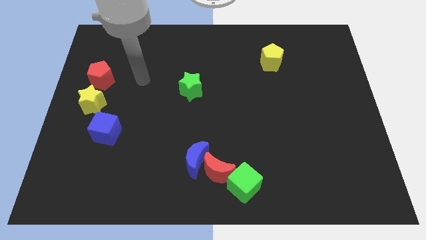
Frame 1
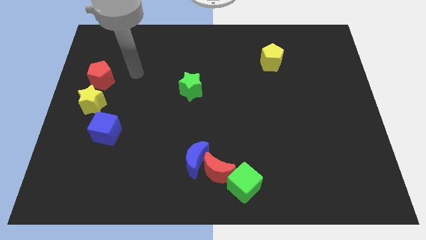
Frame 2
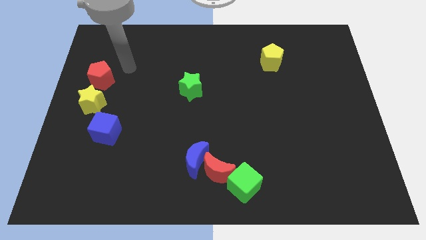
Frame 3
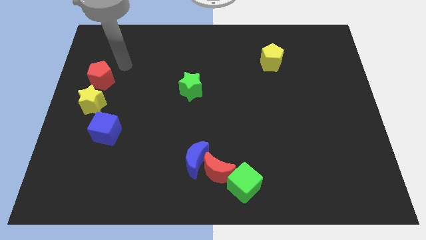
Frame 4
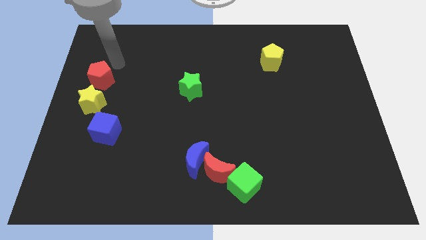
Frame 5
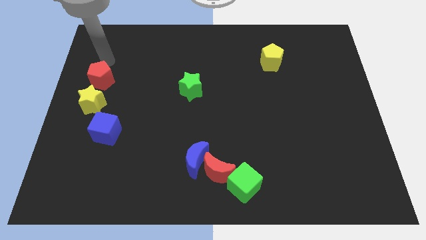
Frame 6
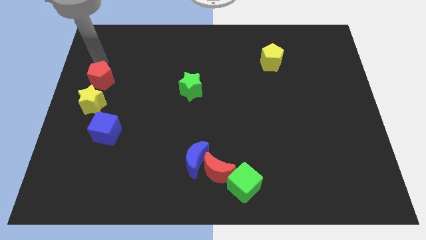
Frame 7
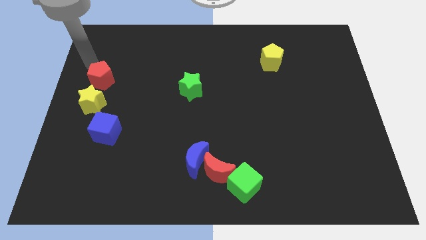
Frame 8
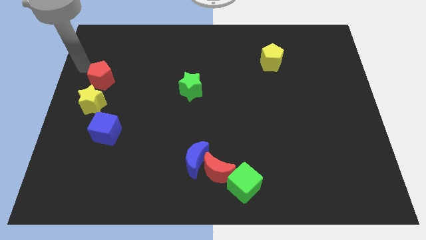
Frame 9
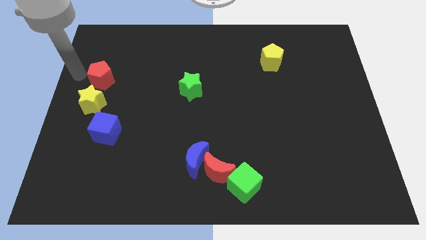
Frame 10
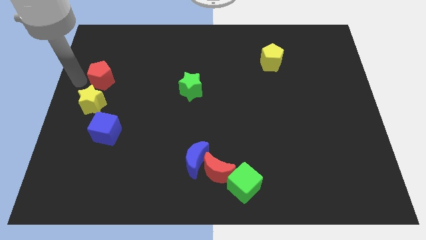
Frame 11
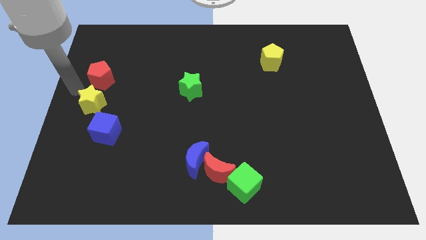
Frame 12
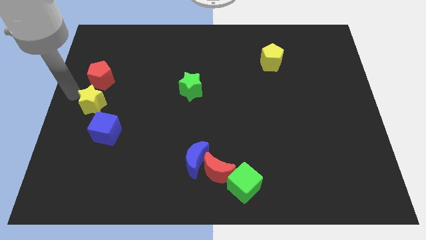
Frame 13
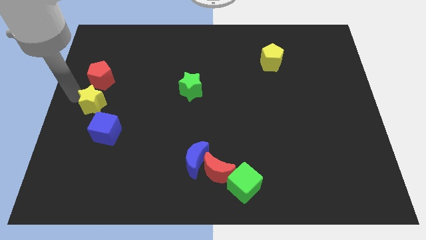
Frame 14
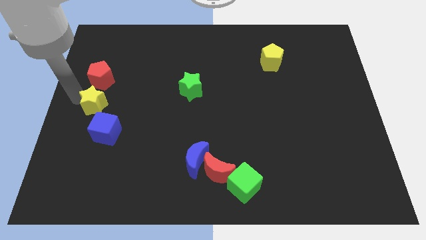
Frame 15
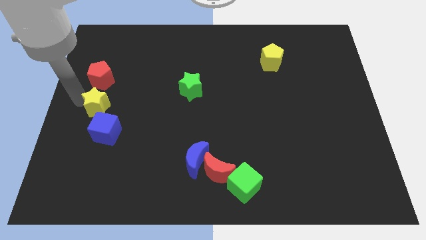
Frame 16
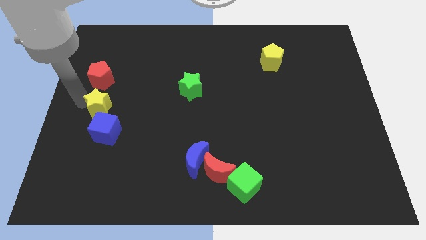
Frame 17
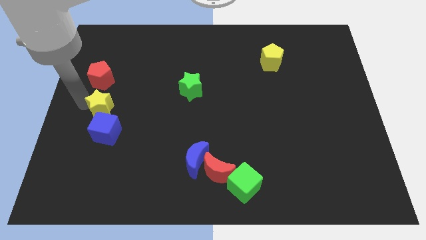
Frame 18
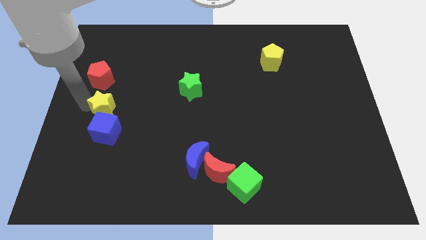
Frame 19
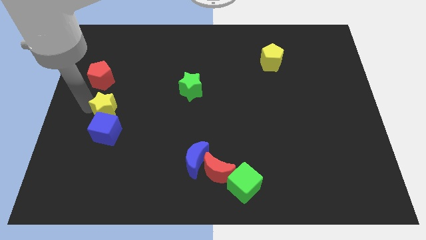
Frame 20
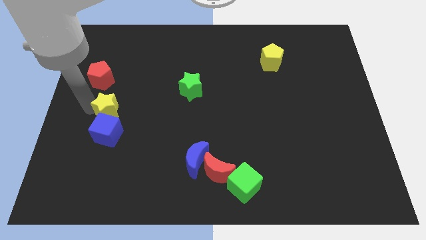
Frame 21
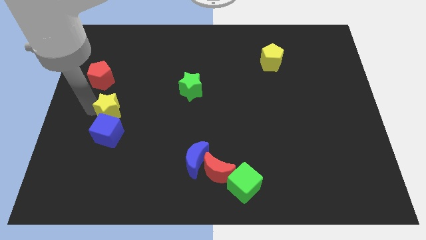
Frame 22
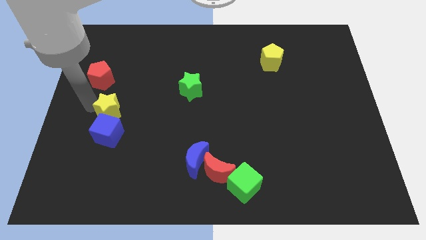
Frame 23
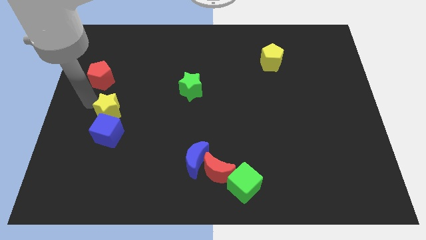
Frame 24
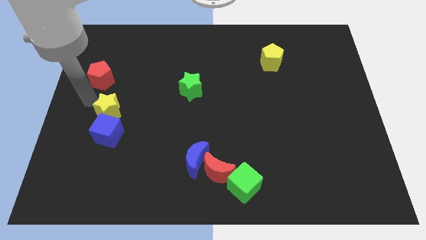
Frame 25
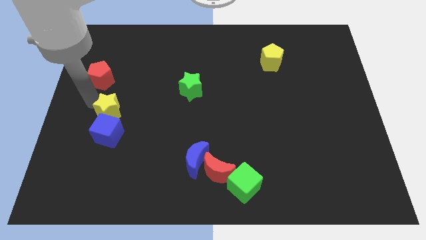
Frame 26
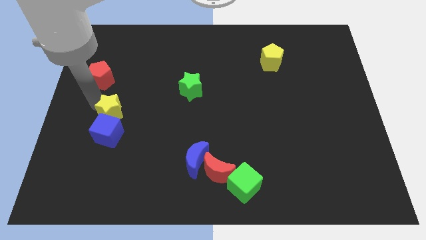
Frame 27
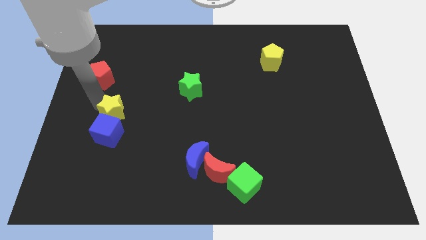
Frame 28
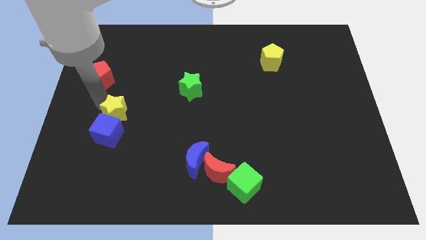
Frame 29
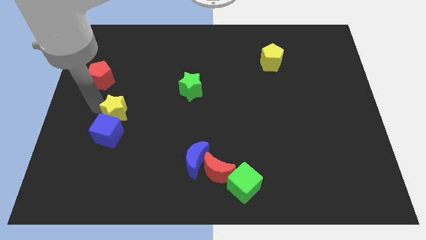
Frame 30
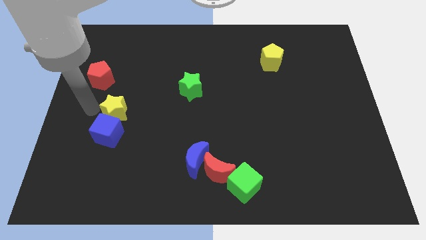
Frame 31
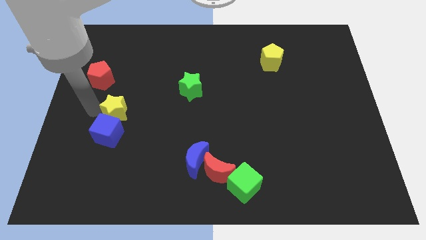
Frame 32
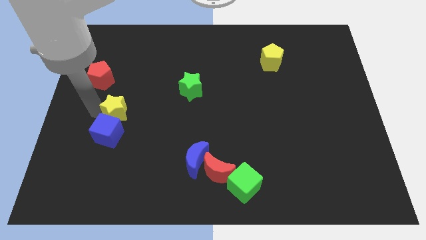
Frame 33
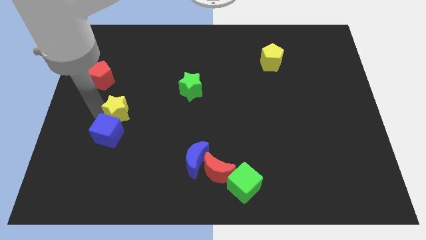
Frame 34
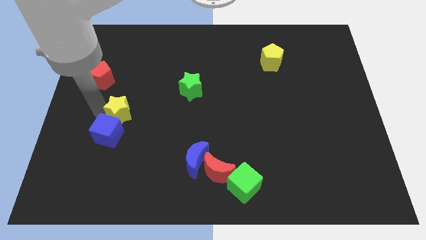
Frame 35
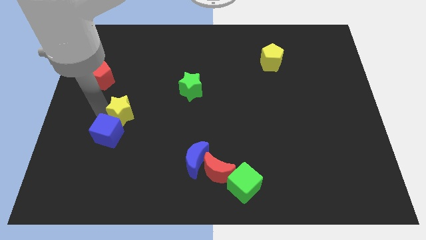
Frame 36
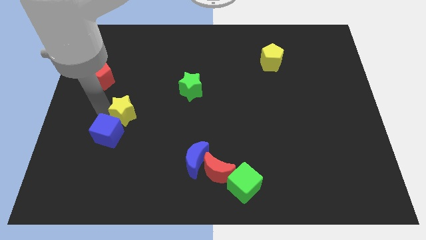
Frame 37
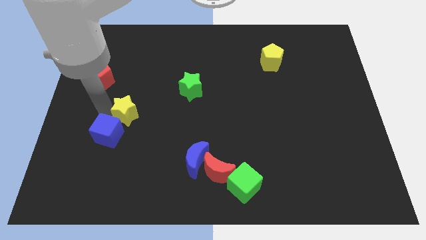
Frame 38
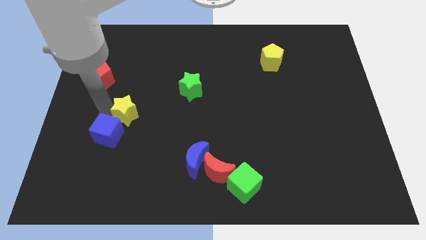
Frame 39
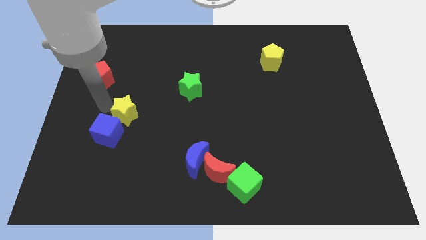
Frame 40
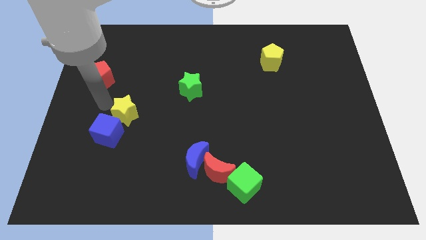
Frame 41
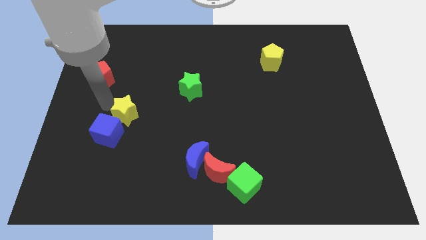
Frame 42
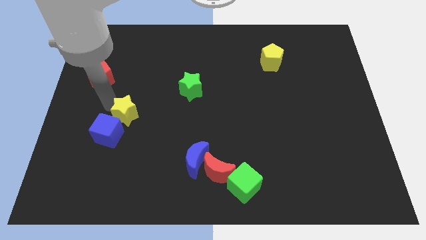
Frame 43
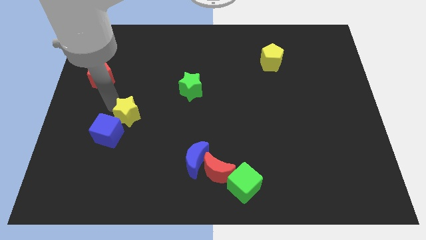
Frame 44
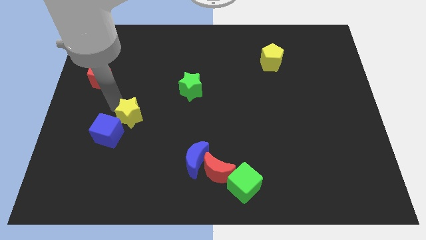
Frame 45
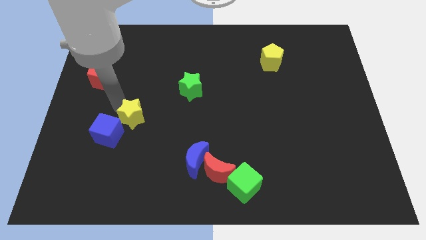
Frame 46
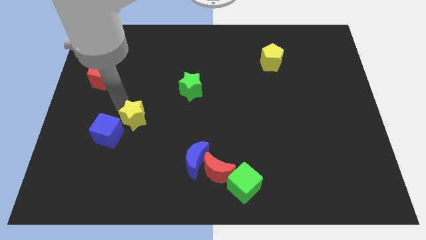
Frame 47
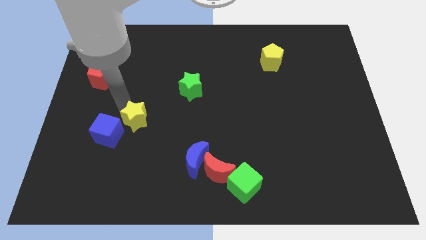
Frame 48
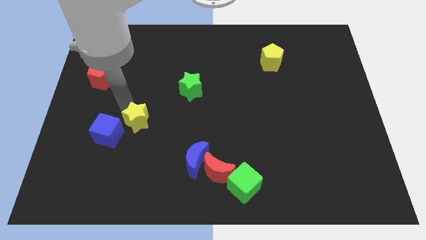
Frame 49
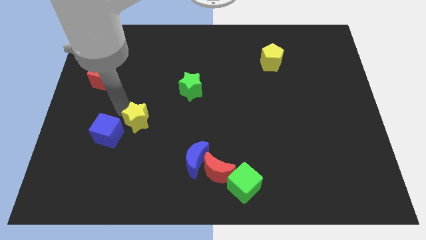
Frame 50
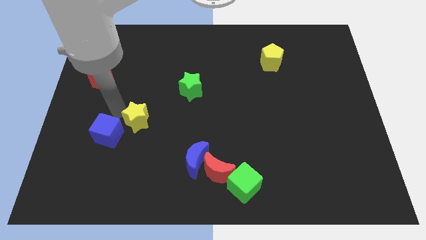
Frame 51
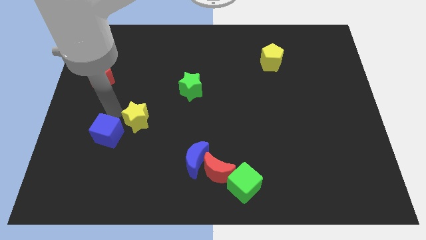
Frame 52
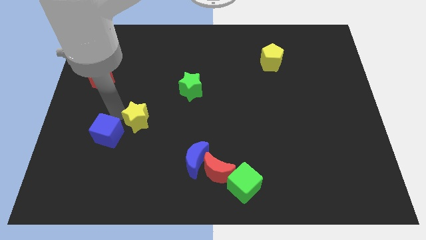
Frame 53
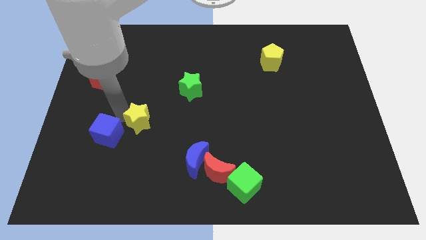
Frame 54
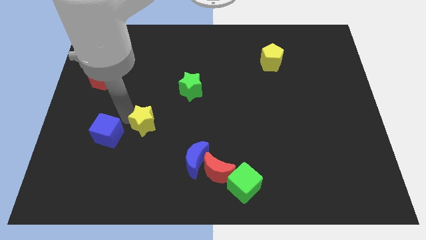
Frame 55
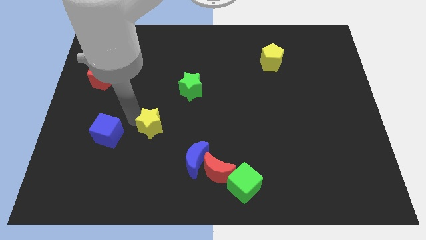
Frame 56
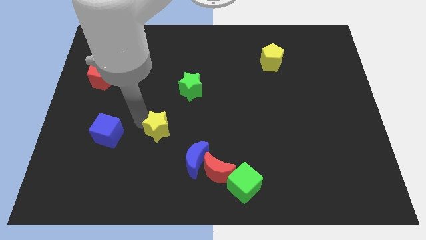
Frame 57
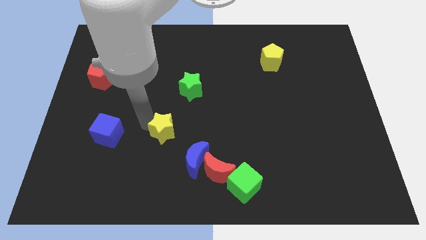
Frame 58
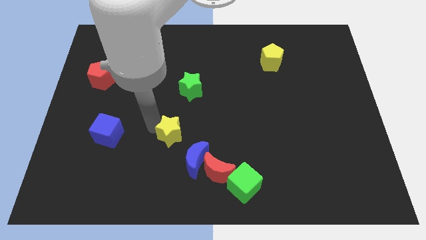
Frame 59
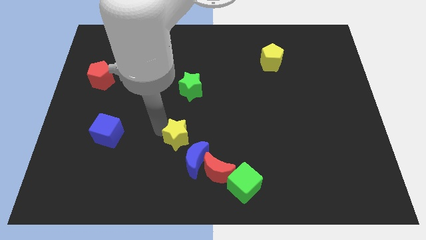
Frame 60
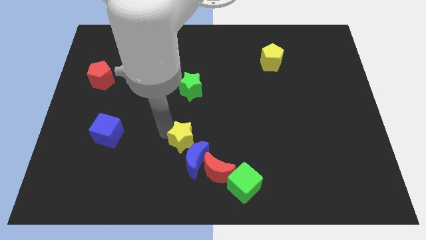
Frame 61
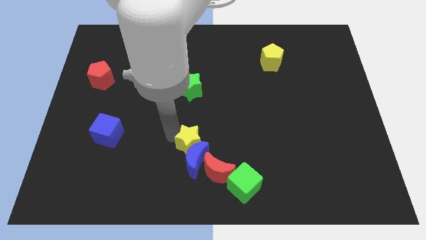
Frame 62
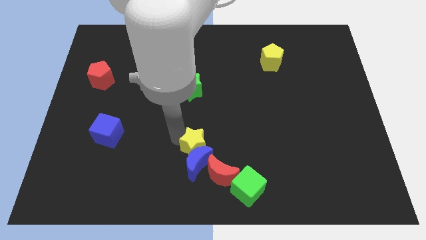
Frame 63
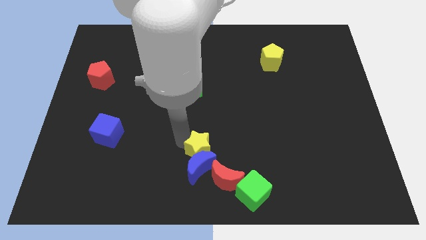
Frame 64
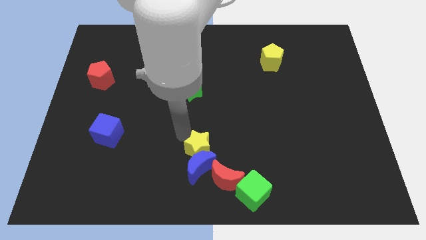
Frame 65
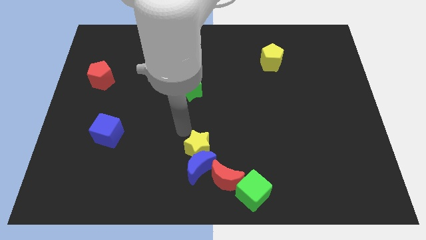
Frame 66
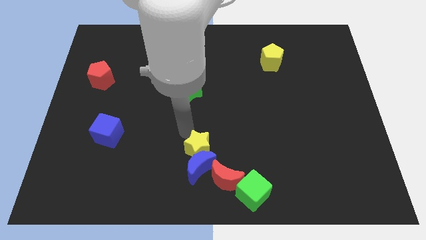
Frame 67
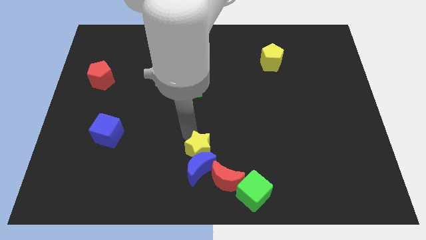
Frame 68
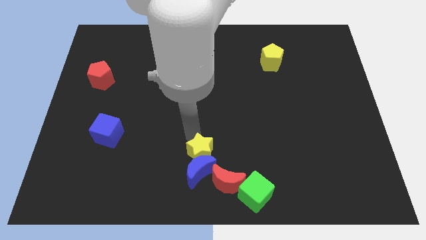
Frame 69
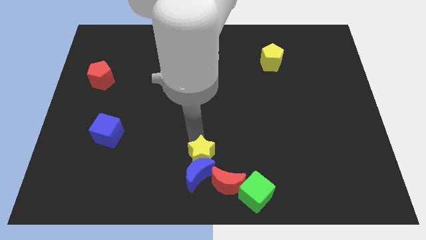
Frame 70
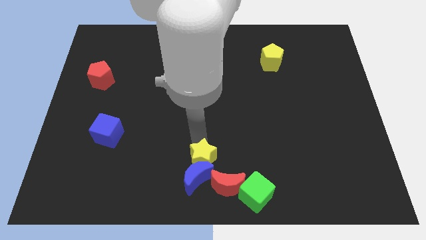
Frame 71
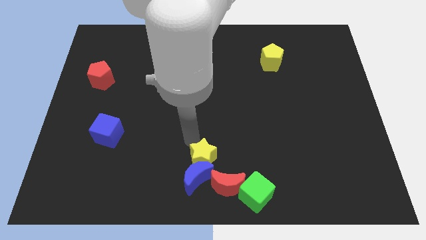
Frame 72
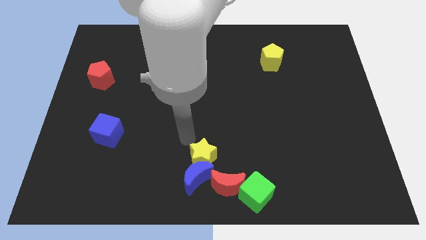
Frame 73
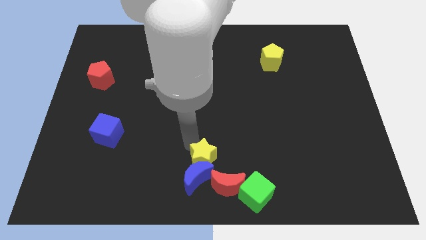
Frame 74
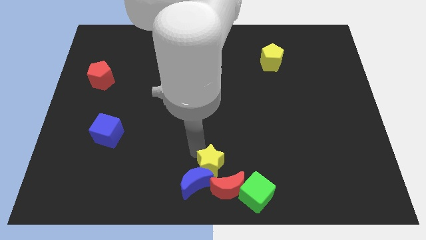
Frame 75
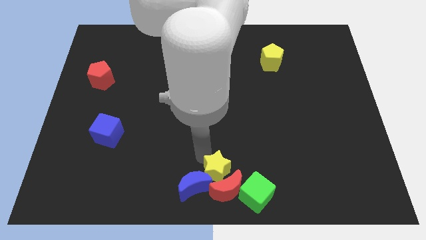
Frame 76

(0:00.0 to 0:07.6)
put the yellow star next to the red moon
